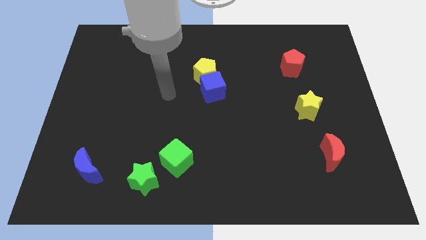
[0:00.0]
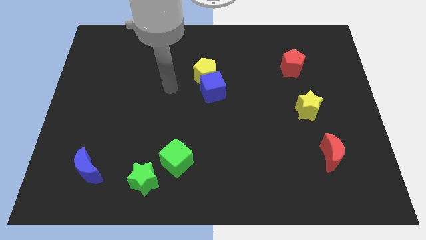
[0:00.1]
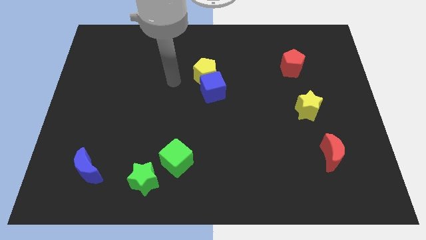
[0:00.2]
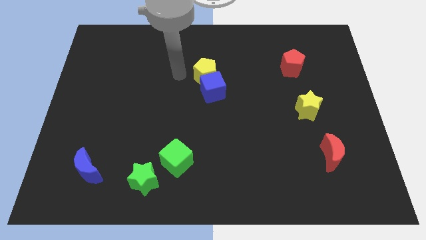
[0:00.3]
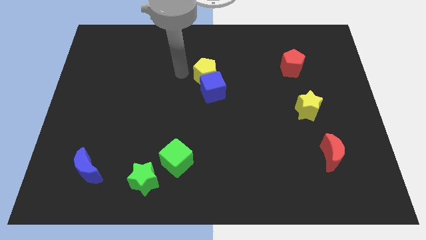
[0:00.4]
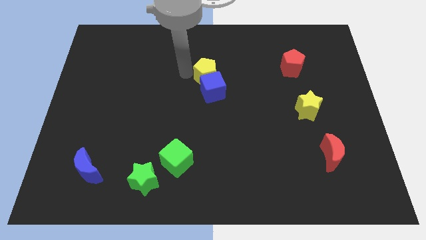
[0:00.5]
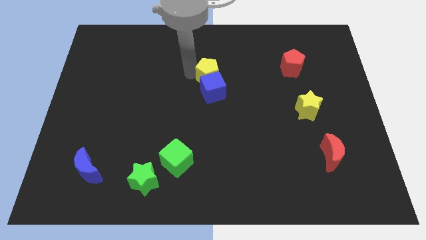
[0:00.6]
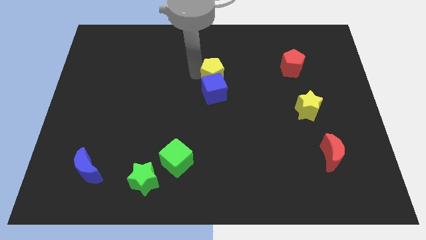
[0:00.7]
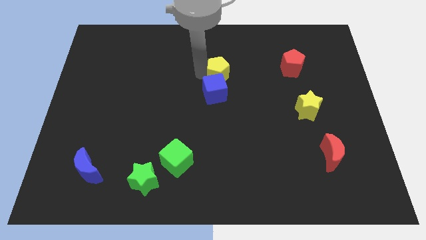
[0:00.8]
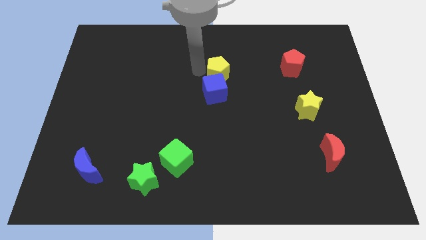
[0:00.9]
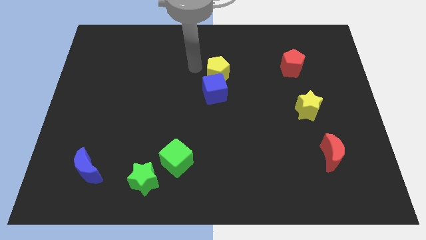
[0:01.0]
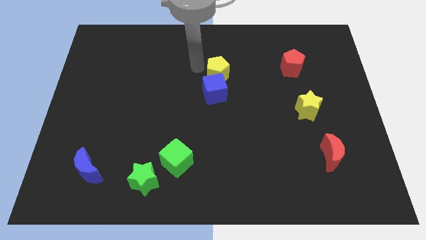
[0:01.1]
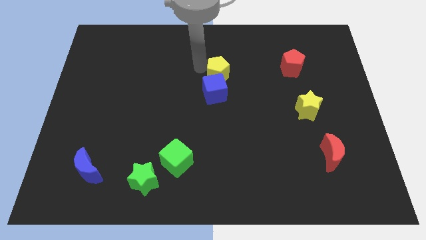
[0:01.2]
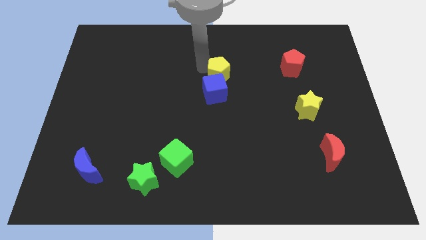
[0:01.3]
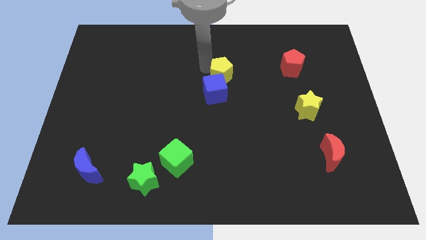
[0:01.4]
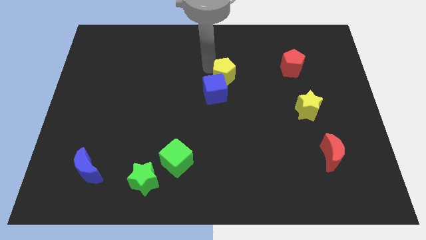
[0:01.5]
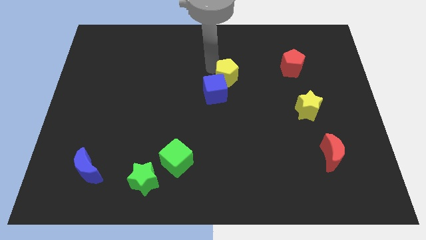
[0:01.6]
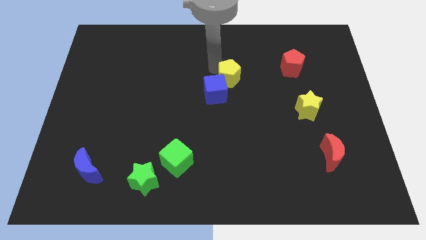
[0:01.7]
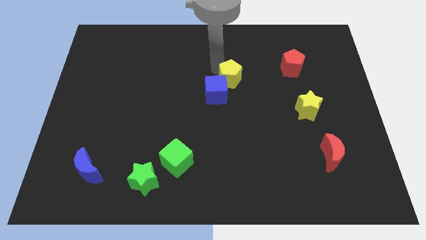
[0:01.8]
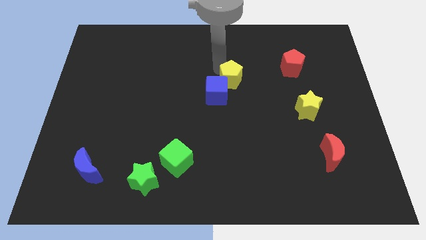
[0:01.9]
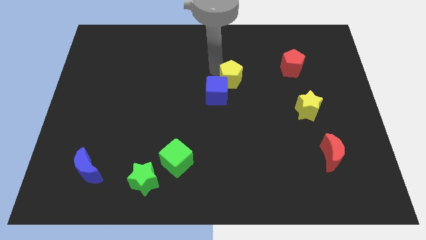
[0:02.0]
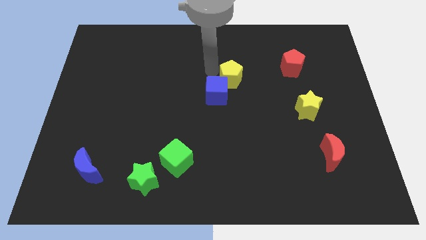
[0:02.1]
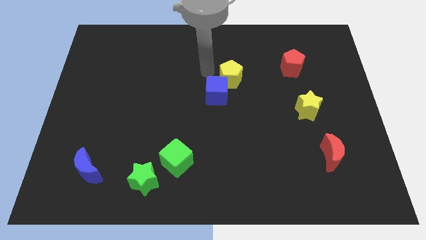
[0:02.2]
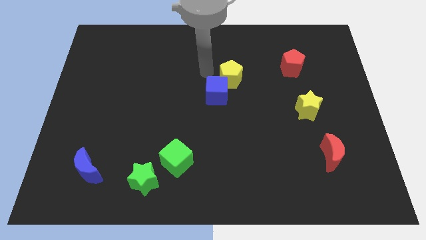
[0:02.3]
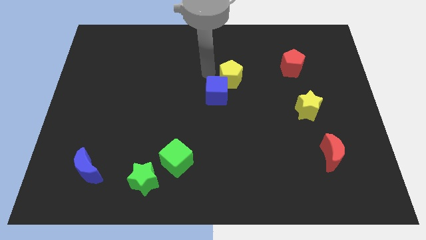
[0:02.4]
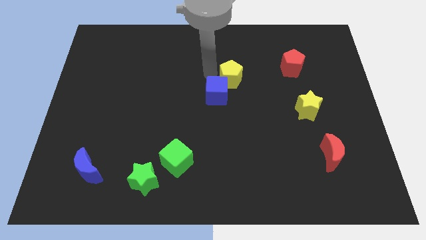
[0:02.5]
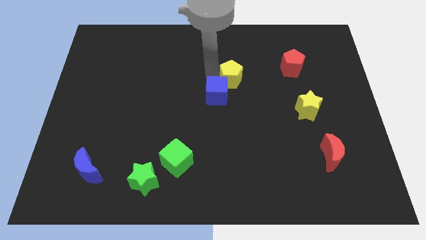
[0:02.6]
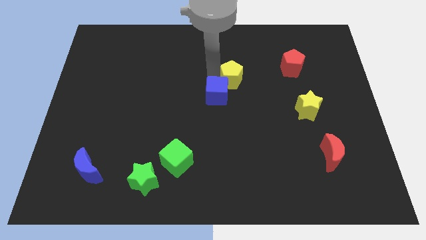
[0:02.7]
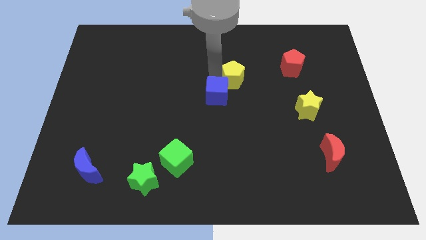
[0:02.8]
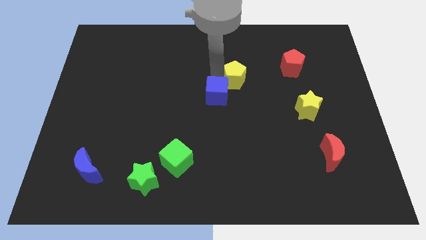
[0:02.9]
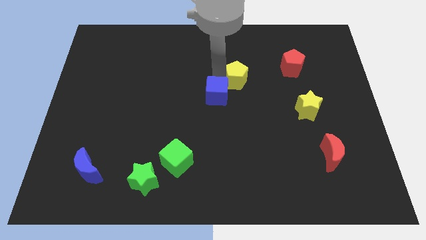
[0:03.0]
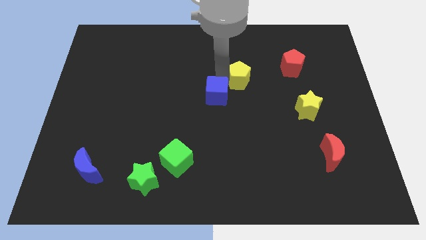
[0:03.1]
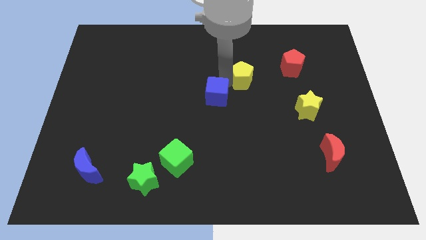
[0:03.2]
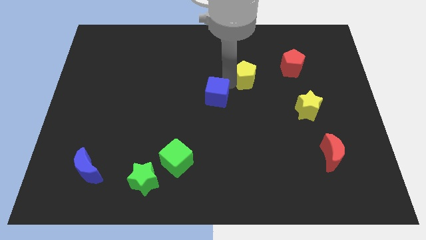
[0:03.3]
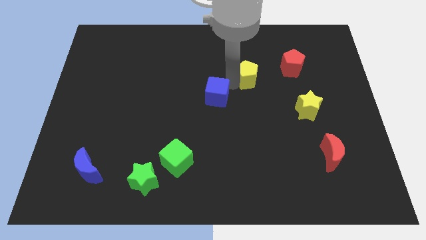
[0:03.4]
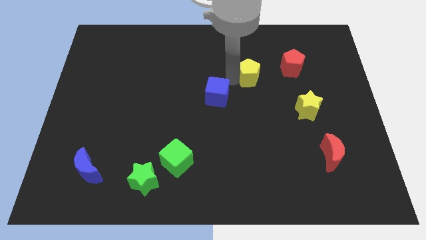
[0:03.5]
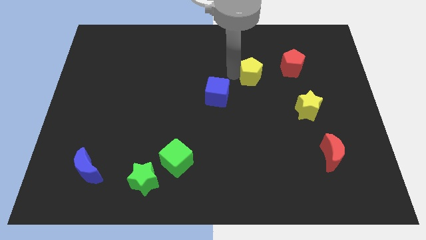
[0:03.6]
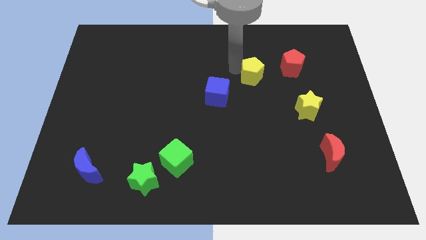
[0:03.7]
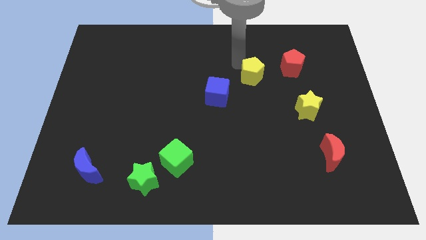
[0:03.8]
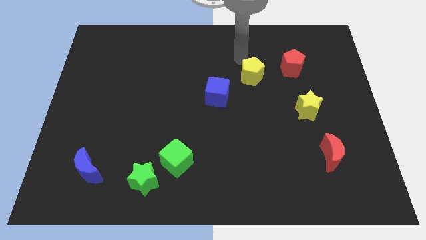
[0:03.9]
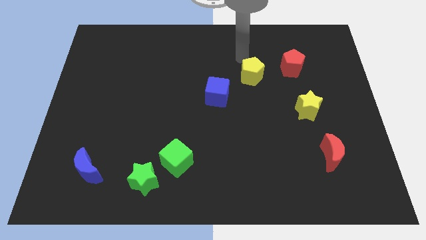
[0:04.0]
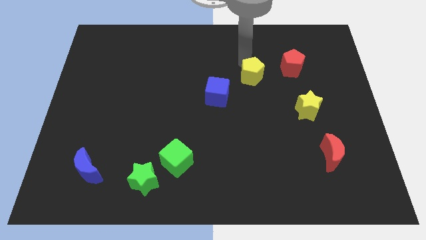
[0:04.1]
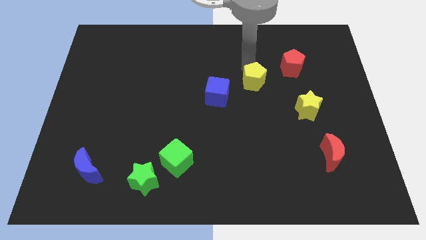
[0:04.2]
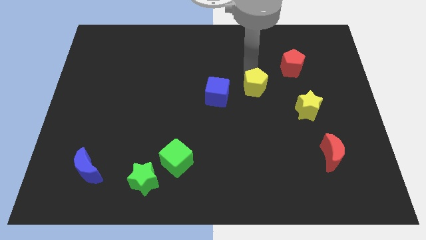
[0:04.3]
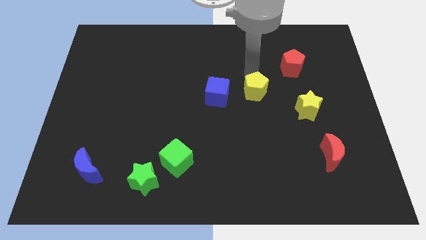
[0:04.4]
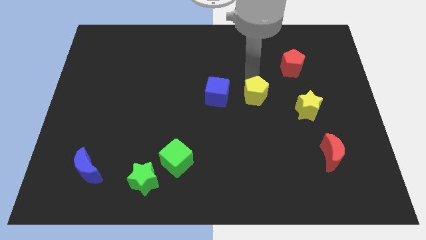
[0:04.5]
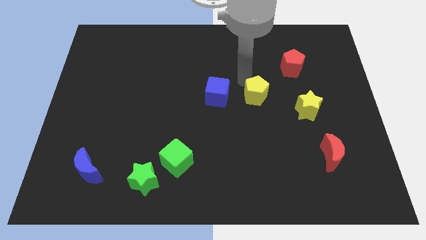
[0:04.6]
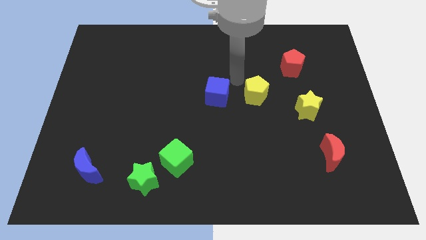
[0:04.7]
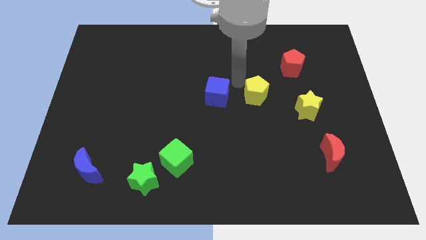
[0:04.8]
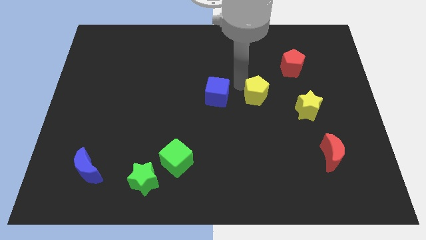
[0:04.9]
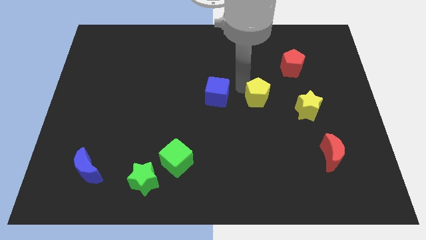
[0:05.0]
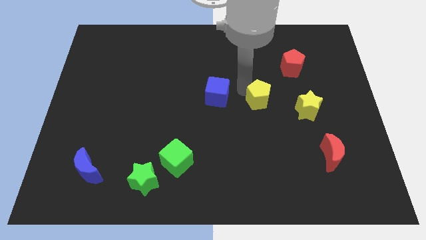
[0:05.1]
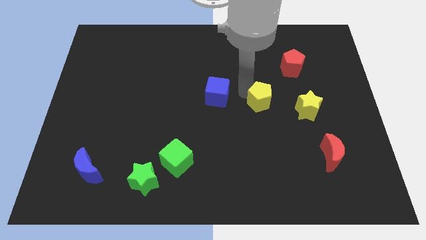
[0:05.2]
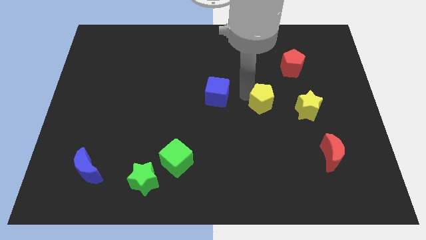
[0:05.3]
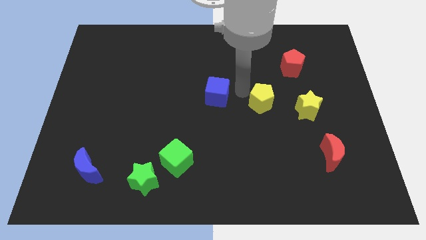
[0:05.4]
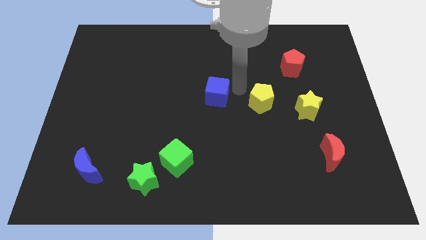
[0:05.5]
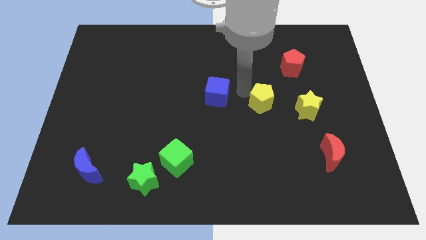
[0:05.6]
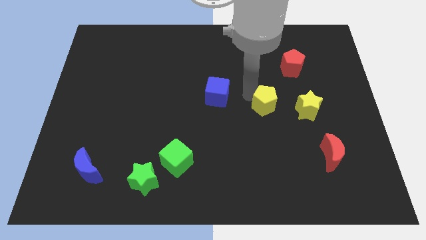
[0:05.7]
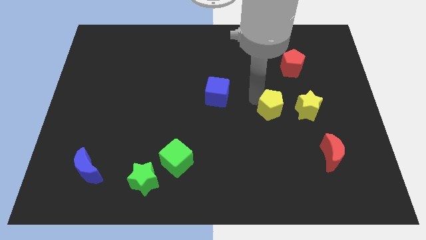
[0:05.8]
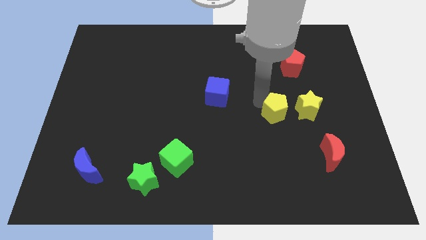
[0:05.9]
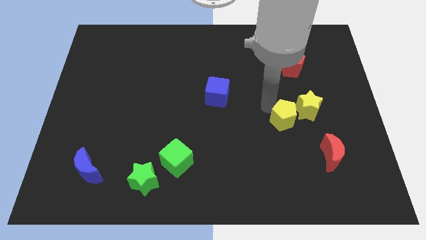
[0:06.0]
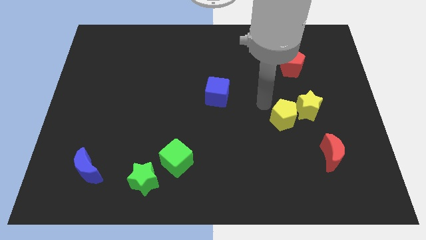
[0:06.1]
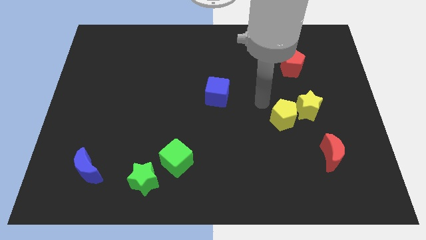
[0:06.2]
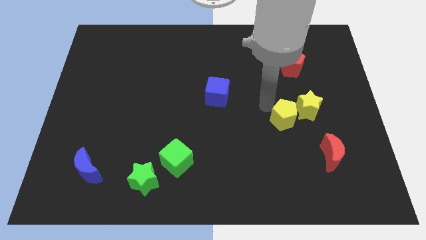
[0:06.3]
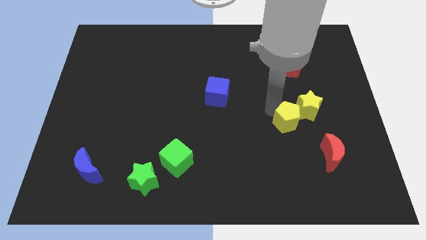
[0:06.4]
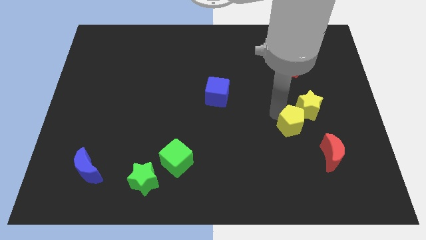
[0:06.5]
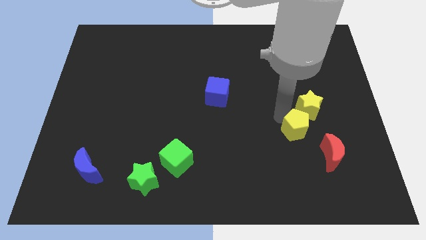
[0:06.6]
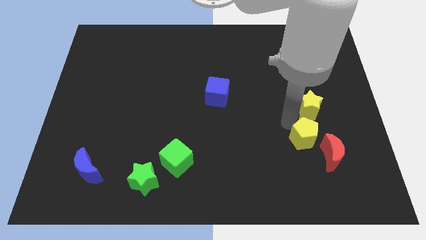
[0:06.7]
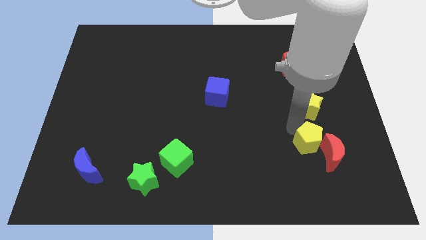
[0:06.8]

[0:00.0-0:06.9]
slide the yellow pentagon to the red moon
